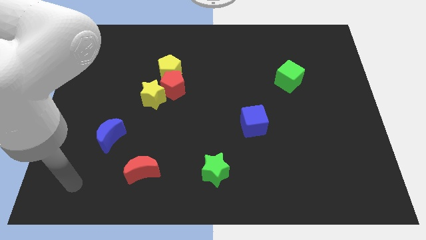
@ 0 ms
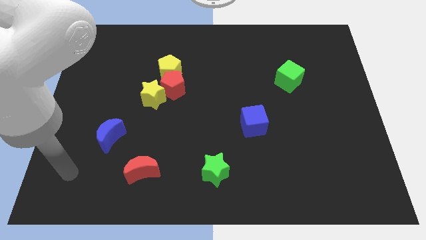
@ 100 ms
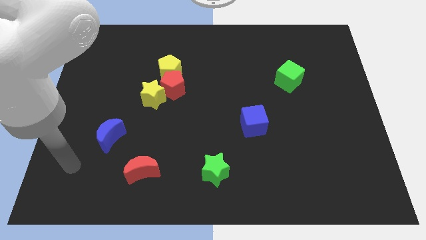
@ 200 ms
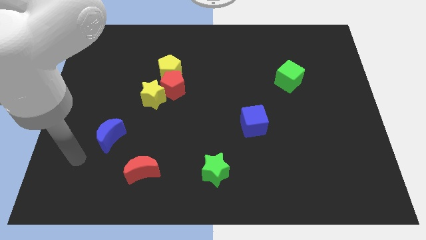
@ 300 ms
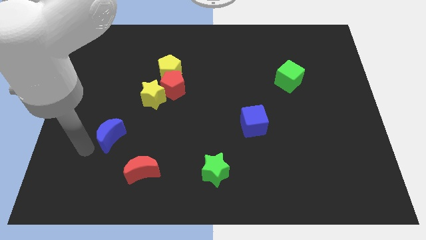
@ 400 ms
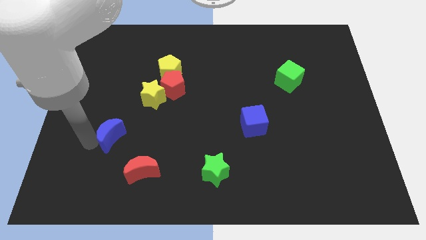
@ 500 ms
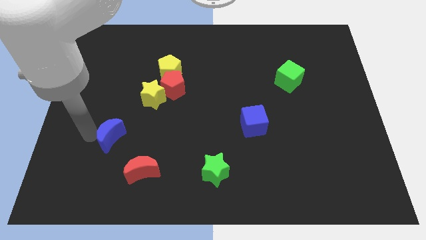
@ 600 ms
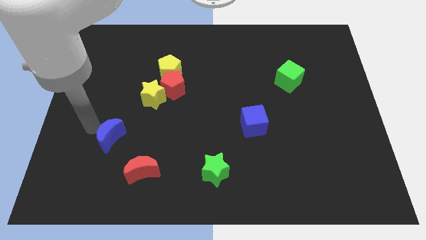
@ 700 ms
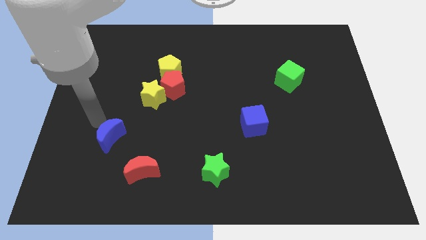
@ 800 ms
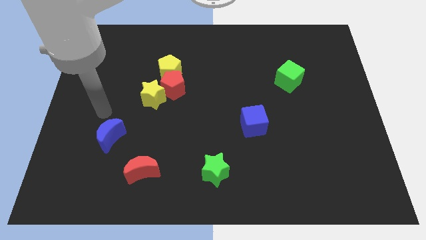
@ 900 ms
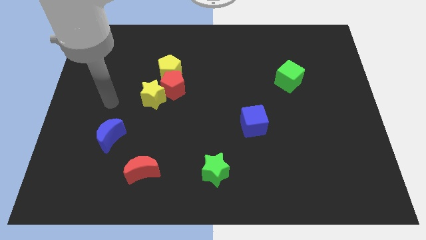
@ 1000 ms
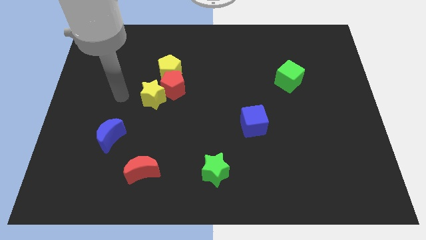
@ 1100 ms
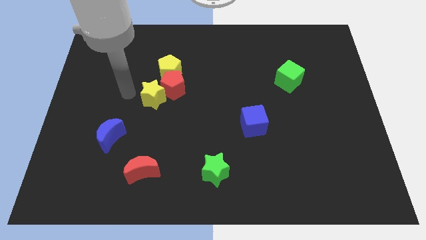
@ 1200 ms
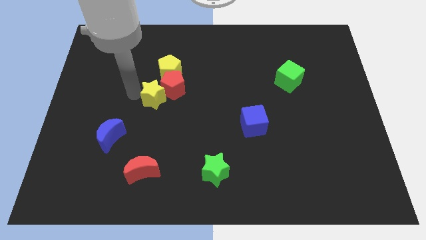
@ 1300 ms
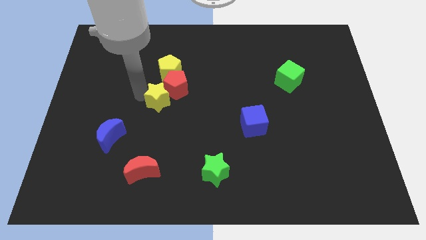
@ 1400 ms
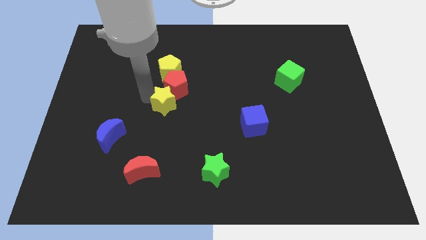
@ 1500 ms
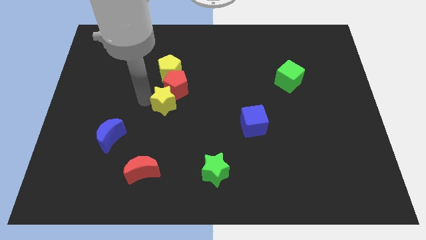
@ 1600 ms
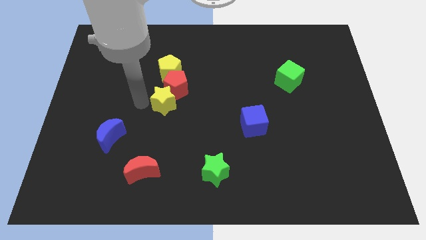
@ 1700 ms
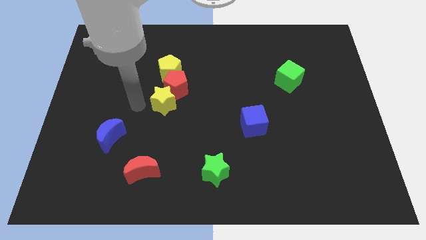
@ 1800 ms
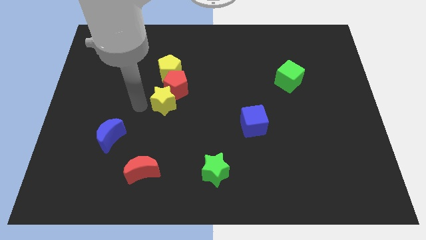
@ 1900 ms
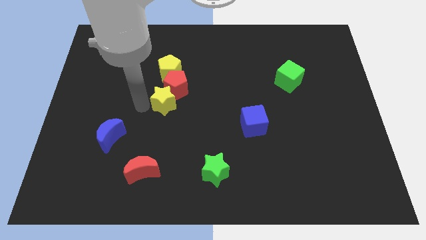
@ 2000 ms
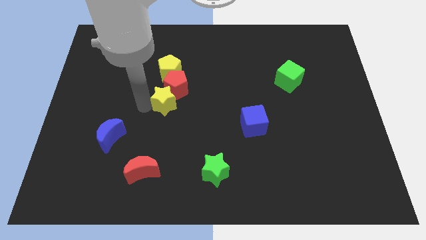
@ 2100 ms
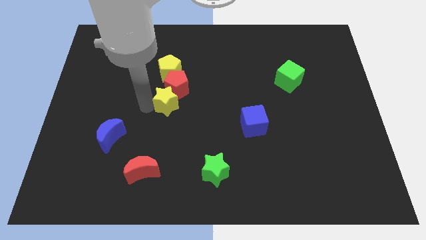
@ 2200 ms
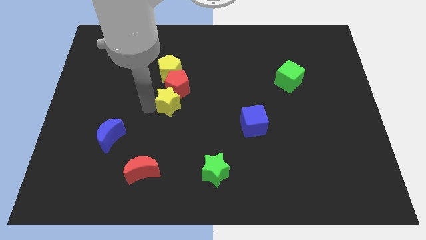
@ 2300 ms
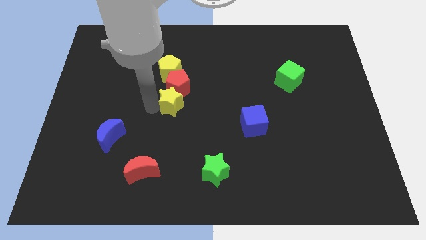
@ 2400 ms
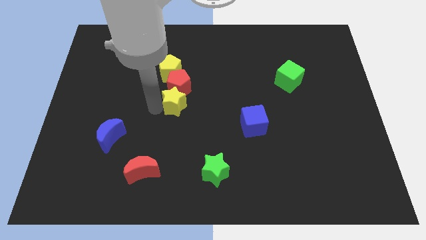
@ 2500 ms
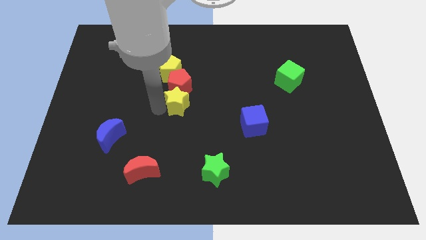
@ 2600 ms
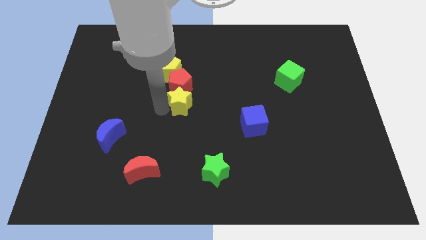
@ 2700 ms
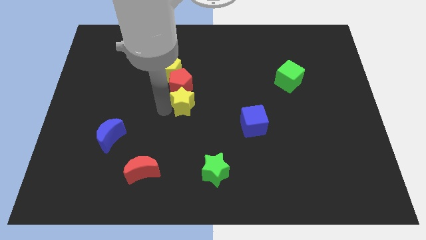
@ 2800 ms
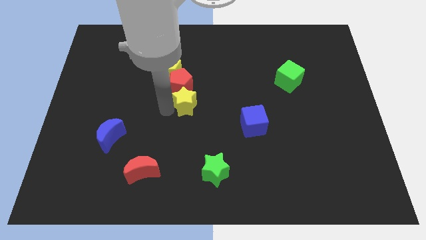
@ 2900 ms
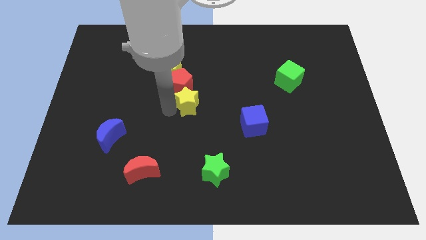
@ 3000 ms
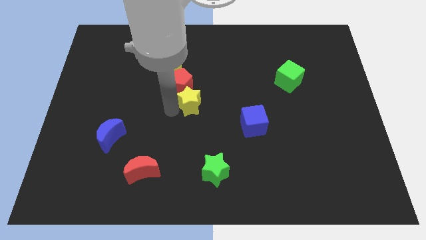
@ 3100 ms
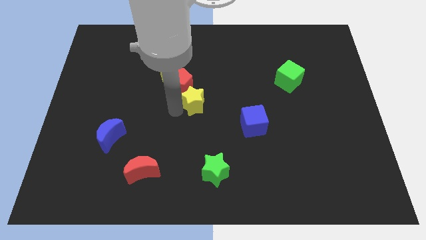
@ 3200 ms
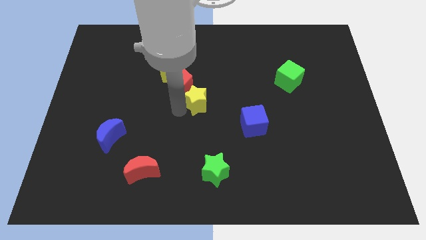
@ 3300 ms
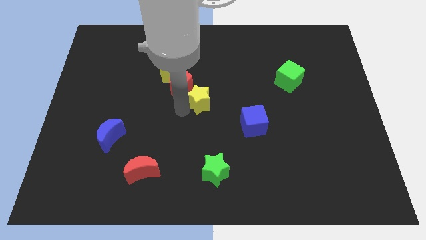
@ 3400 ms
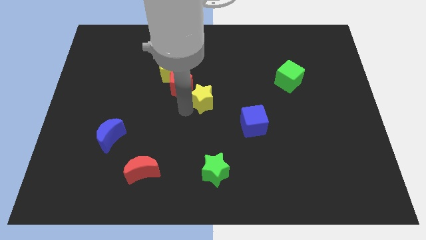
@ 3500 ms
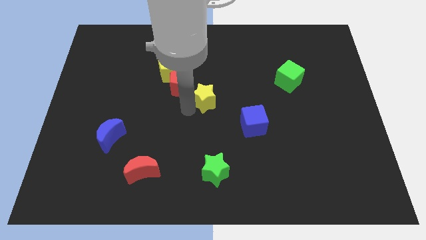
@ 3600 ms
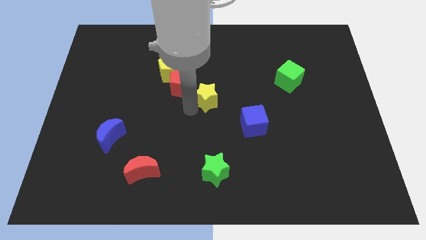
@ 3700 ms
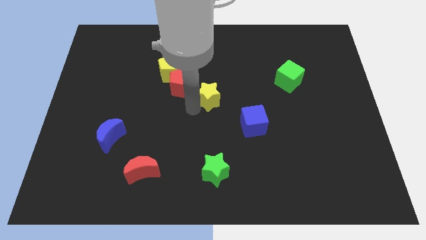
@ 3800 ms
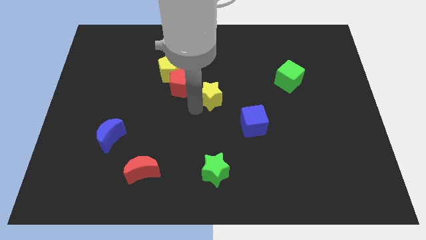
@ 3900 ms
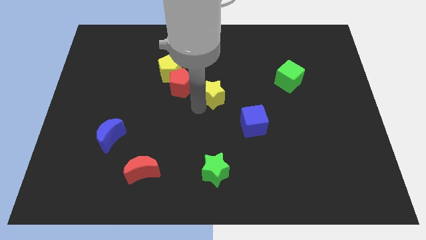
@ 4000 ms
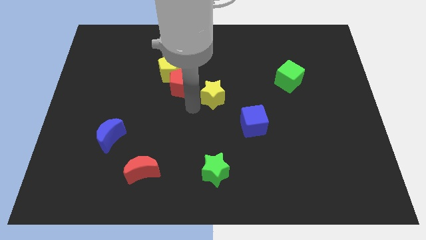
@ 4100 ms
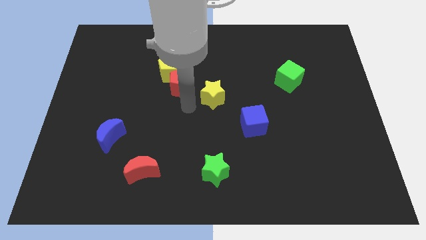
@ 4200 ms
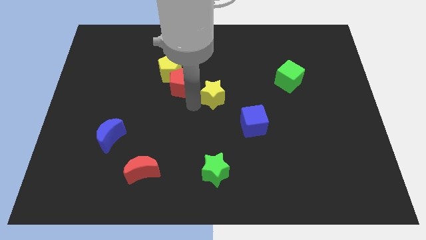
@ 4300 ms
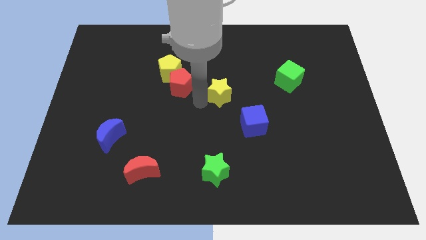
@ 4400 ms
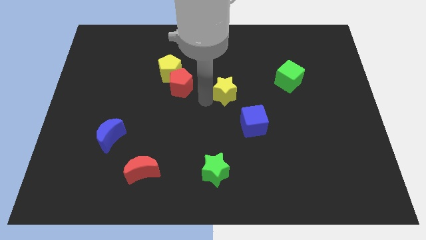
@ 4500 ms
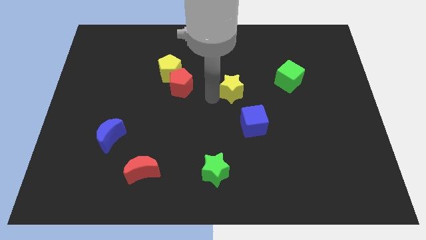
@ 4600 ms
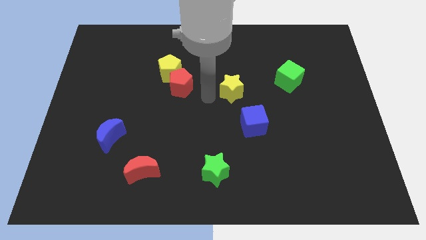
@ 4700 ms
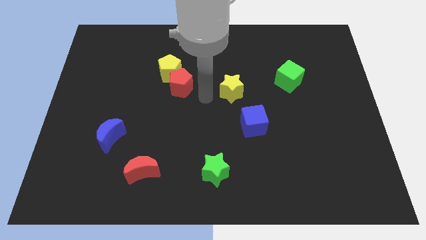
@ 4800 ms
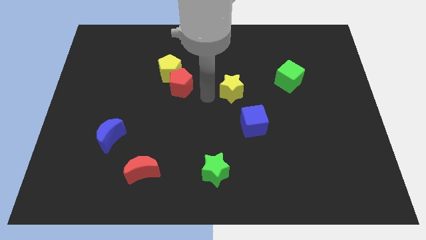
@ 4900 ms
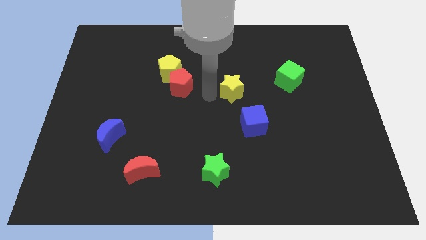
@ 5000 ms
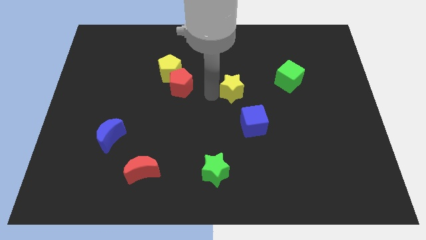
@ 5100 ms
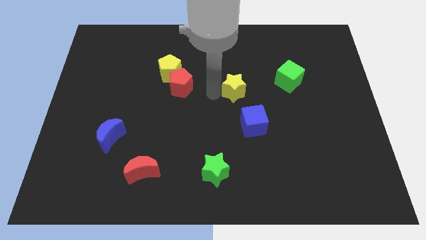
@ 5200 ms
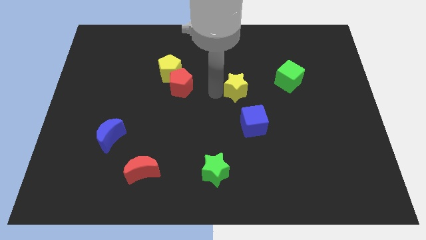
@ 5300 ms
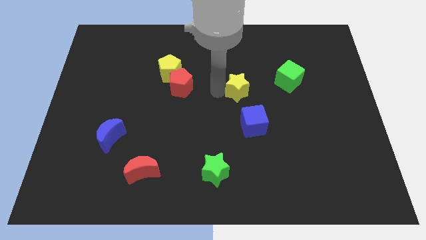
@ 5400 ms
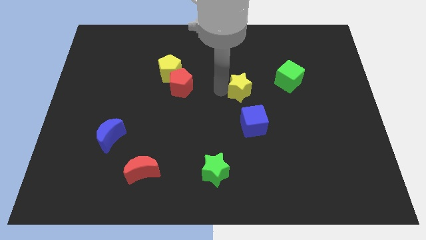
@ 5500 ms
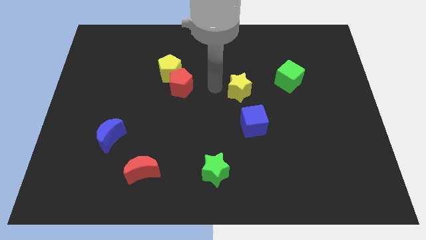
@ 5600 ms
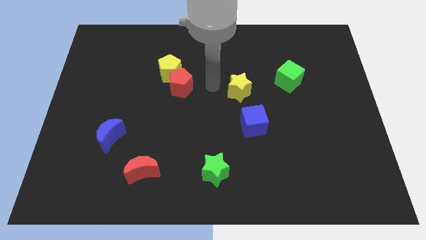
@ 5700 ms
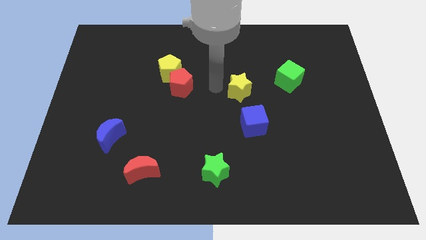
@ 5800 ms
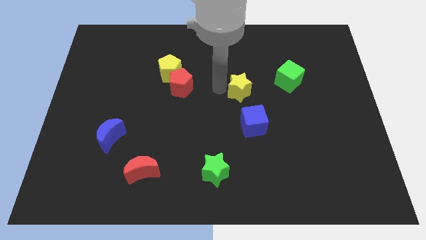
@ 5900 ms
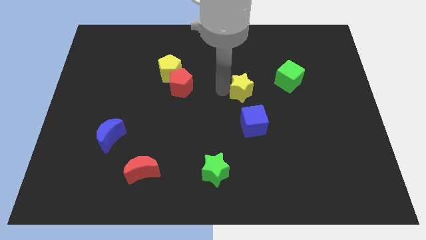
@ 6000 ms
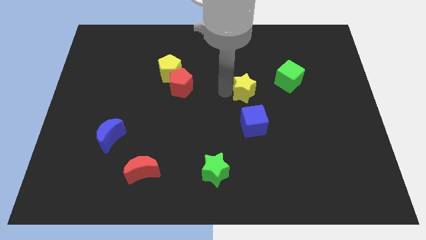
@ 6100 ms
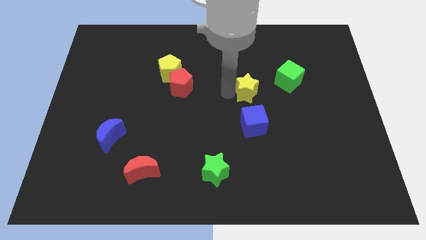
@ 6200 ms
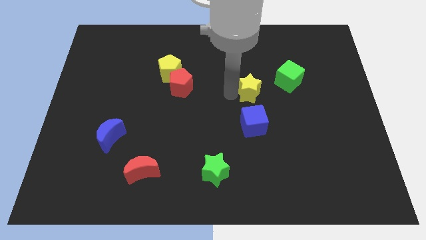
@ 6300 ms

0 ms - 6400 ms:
slide the yellow star to the bottom left side of the green cube
